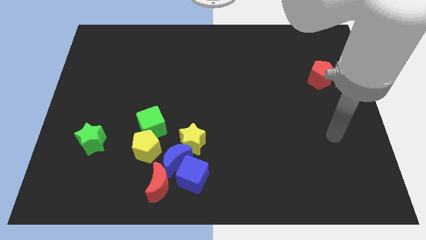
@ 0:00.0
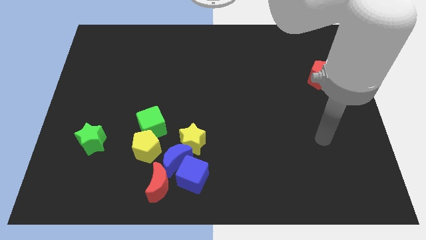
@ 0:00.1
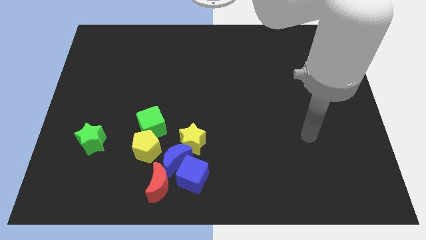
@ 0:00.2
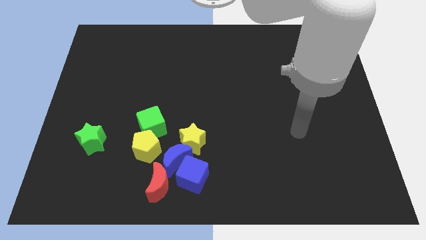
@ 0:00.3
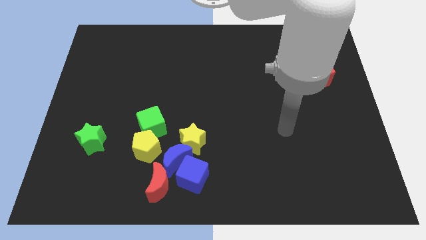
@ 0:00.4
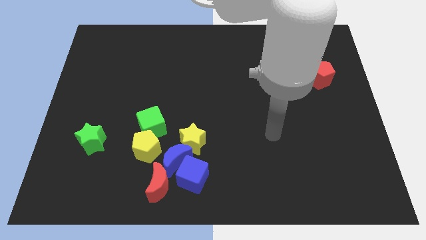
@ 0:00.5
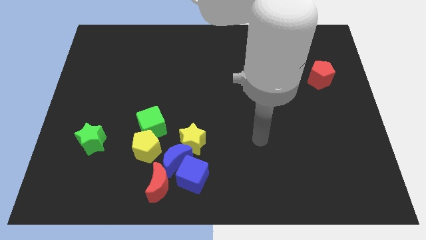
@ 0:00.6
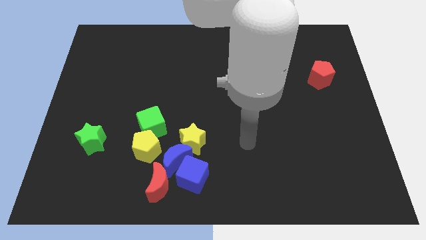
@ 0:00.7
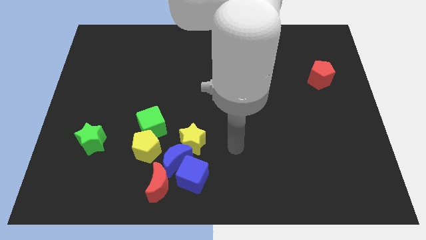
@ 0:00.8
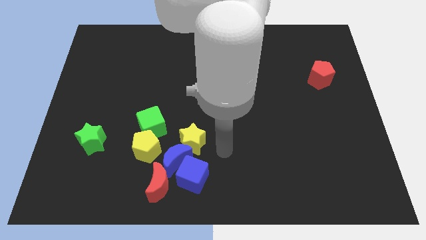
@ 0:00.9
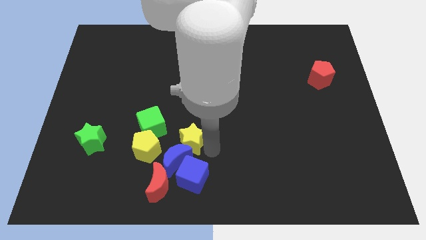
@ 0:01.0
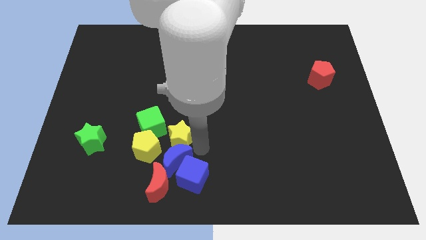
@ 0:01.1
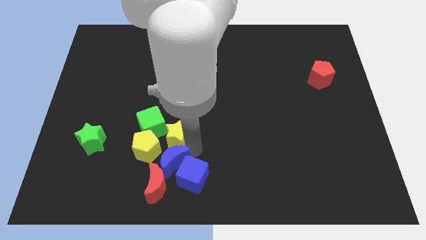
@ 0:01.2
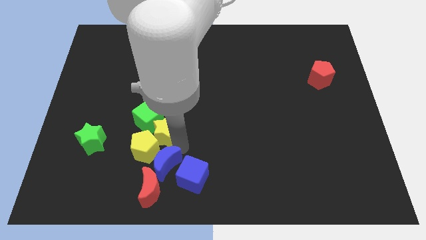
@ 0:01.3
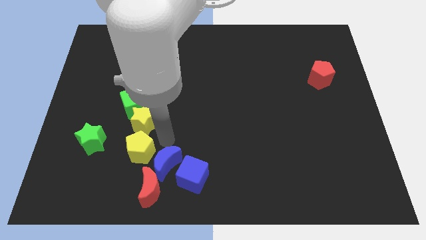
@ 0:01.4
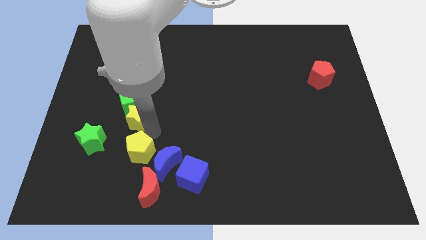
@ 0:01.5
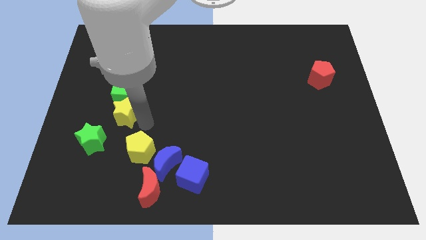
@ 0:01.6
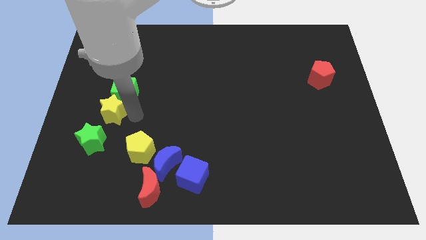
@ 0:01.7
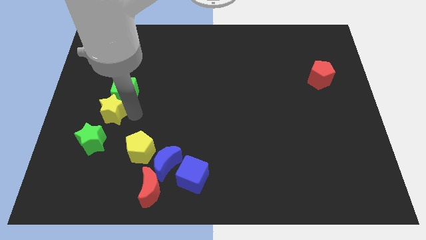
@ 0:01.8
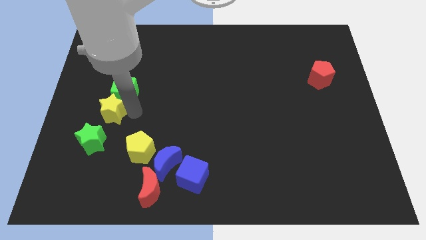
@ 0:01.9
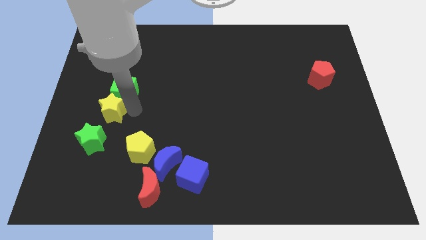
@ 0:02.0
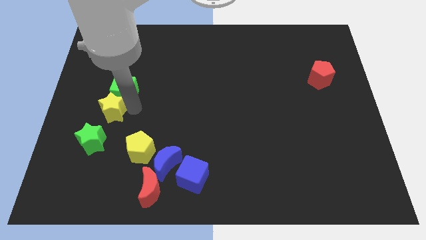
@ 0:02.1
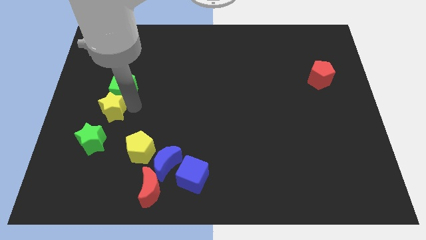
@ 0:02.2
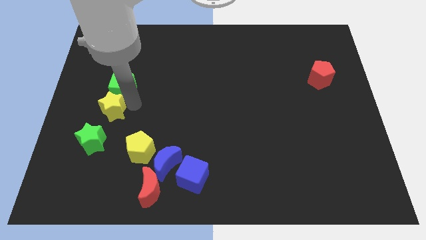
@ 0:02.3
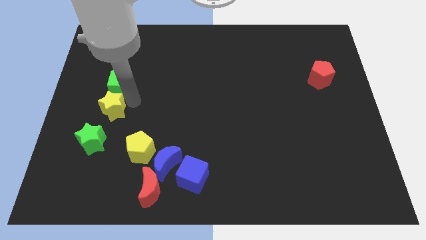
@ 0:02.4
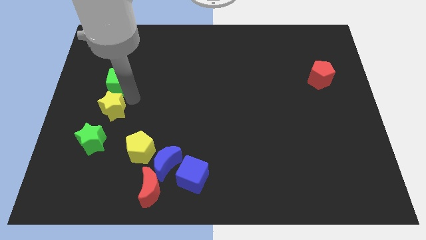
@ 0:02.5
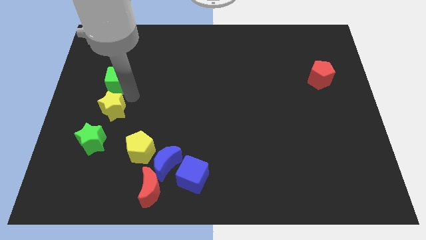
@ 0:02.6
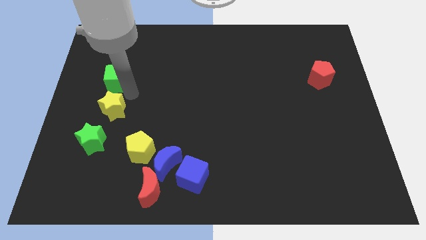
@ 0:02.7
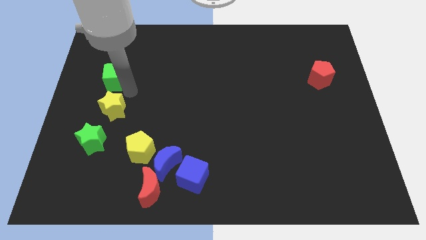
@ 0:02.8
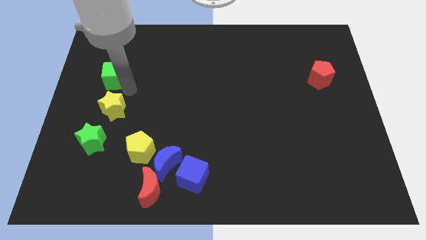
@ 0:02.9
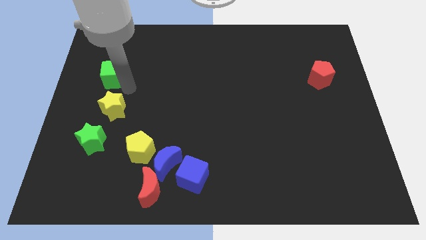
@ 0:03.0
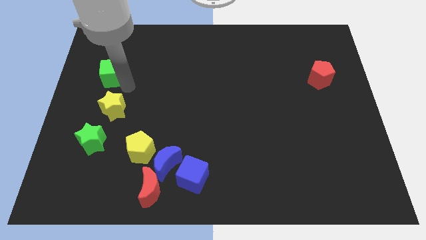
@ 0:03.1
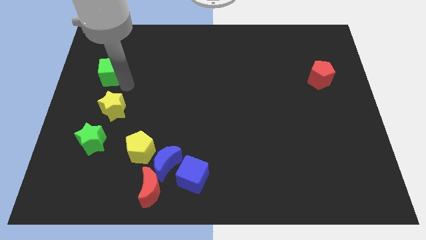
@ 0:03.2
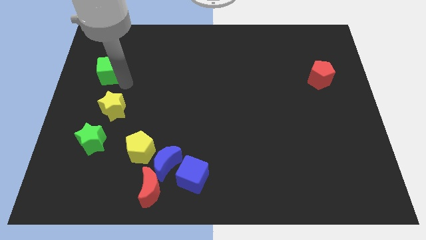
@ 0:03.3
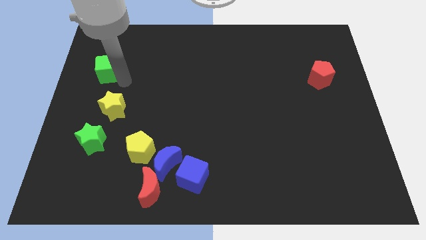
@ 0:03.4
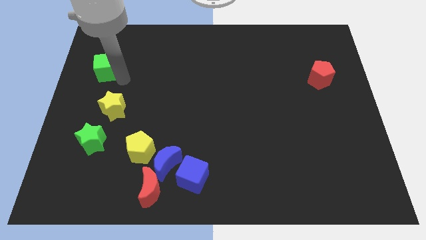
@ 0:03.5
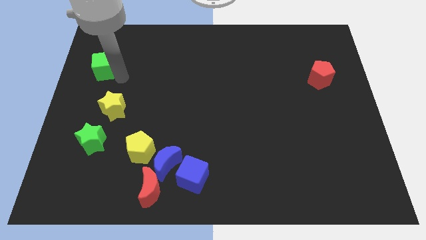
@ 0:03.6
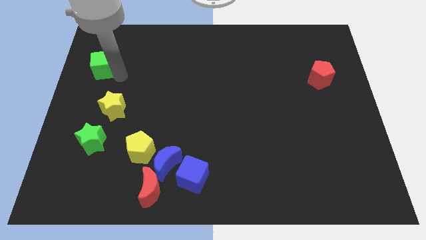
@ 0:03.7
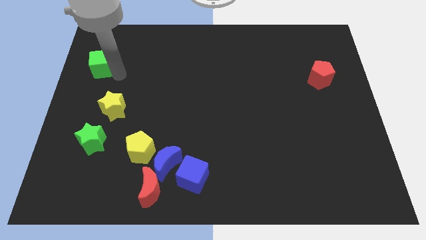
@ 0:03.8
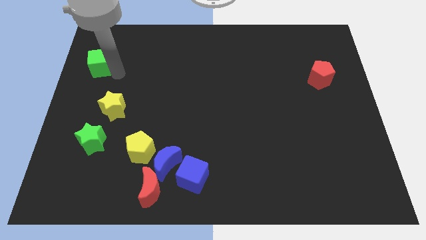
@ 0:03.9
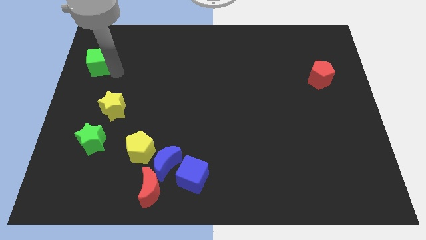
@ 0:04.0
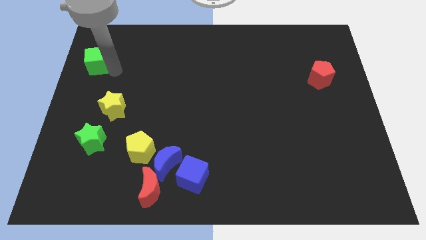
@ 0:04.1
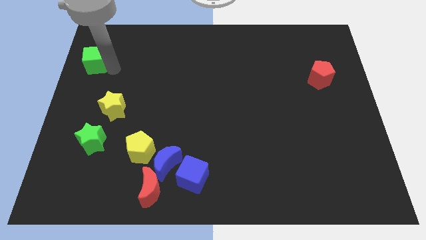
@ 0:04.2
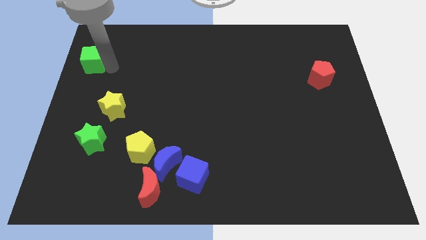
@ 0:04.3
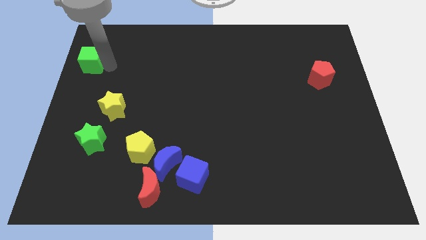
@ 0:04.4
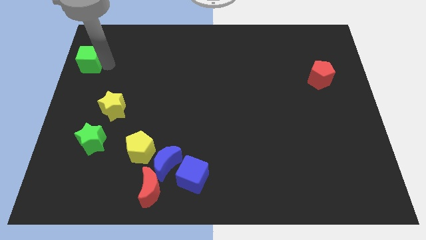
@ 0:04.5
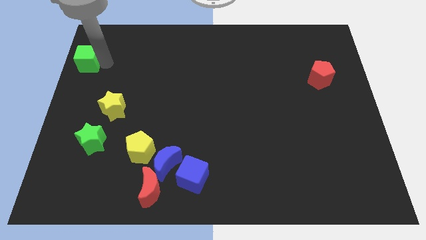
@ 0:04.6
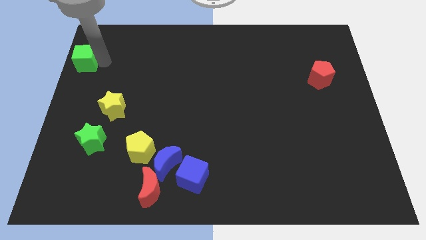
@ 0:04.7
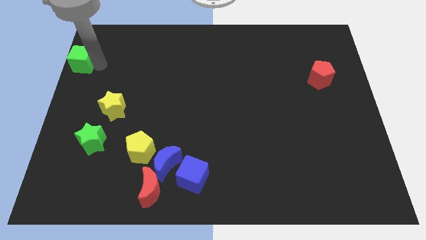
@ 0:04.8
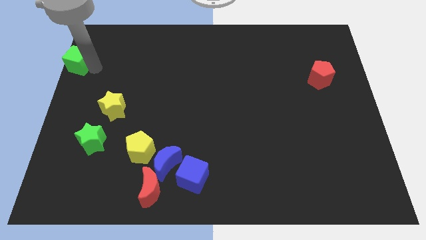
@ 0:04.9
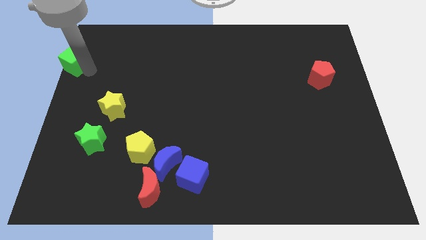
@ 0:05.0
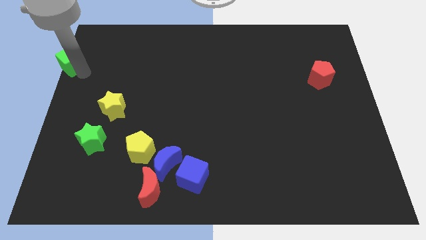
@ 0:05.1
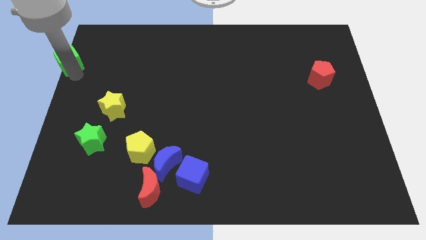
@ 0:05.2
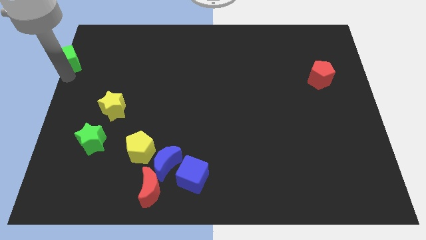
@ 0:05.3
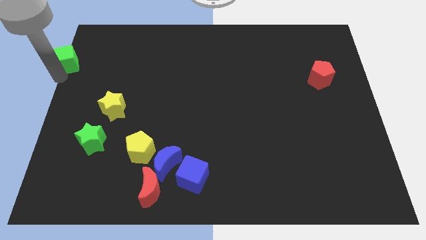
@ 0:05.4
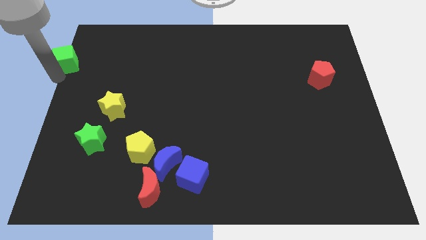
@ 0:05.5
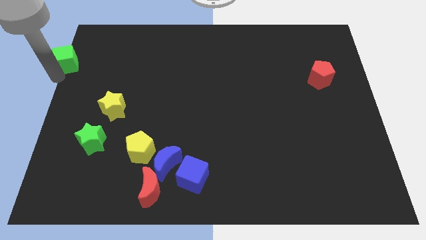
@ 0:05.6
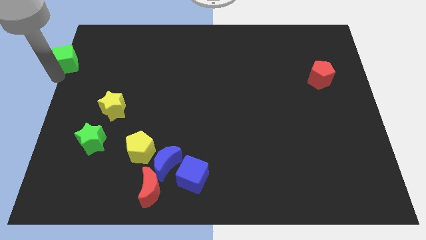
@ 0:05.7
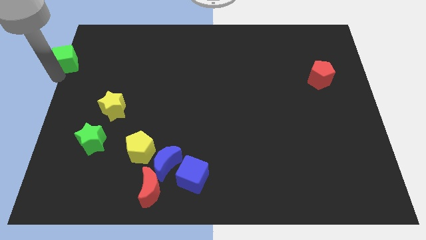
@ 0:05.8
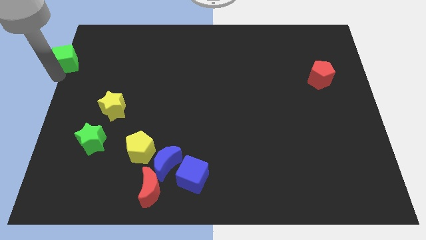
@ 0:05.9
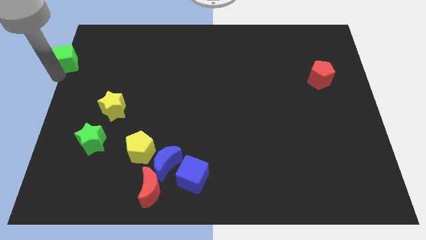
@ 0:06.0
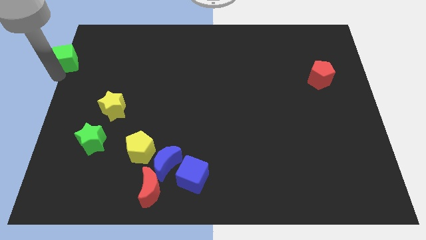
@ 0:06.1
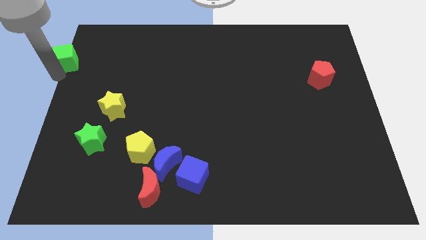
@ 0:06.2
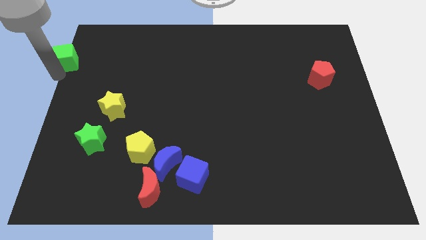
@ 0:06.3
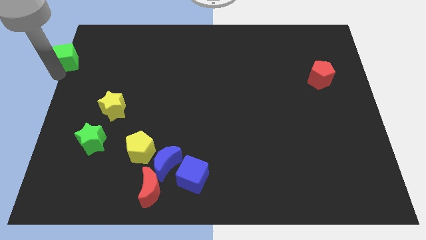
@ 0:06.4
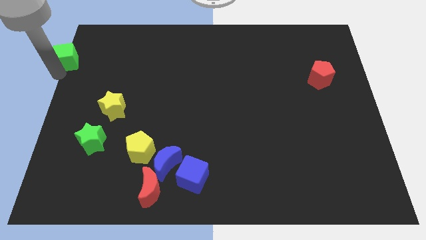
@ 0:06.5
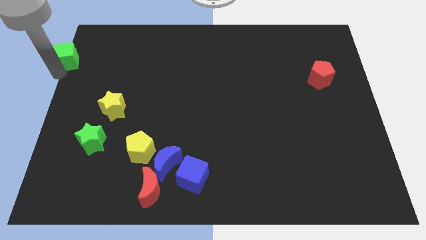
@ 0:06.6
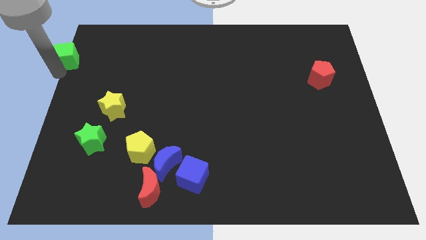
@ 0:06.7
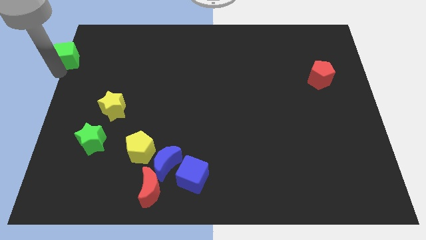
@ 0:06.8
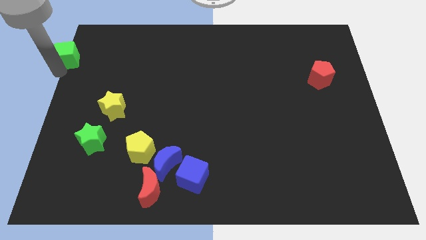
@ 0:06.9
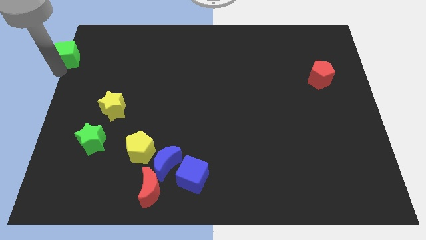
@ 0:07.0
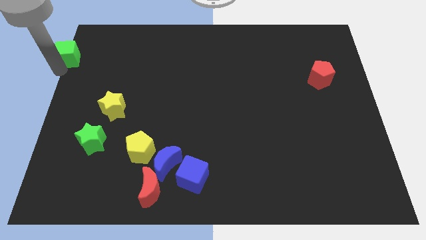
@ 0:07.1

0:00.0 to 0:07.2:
slide the green cube to the upper left corner
